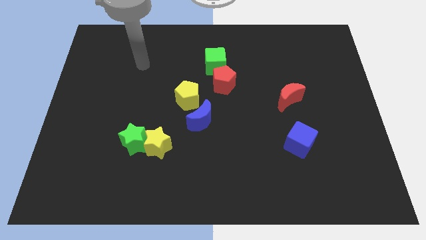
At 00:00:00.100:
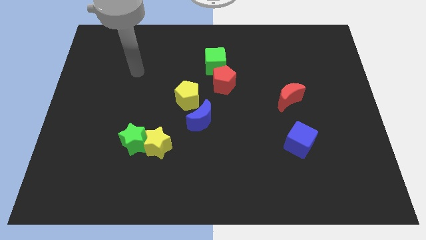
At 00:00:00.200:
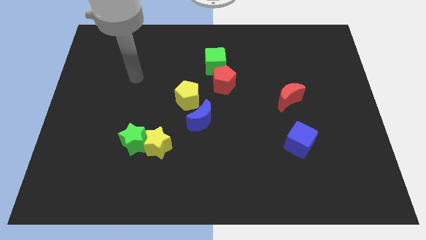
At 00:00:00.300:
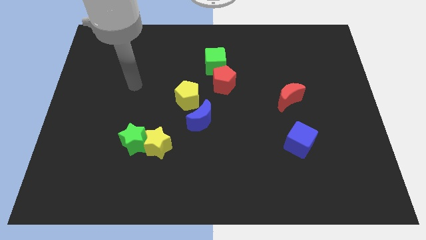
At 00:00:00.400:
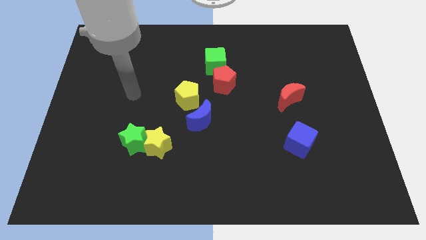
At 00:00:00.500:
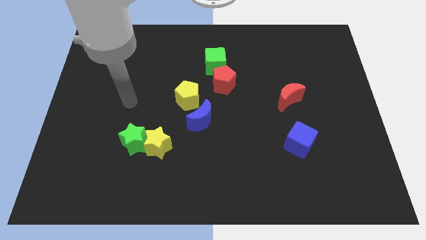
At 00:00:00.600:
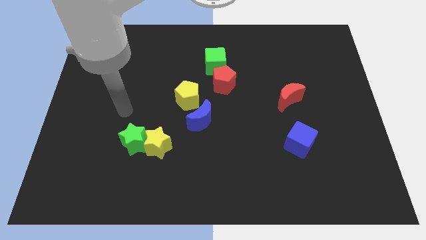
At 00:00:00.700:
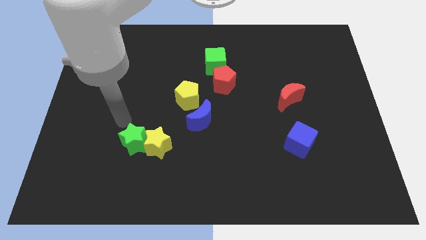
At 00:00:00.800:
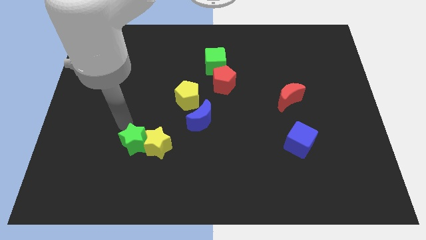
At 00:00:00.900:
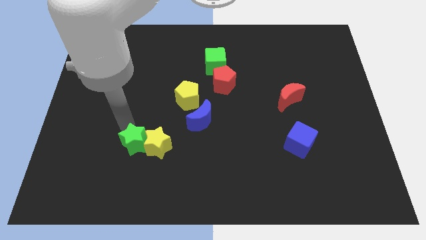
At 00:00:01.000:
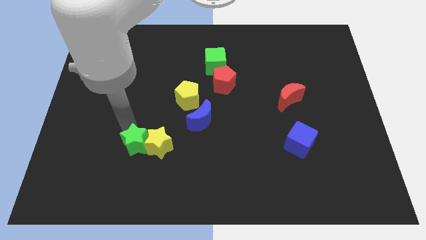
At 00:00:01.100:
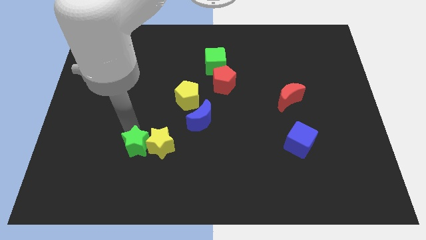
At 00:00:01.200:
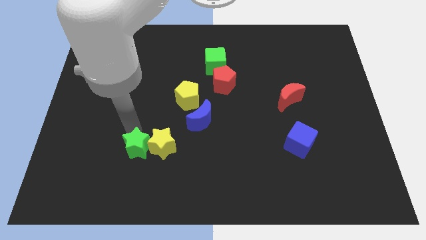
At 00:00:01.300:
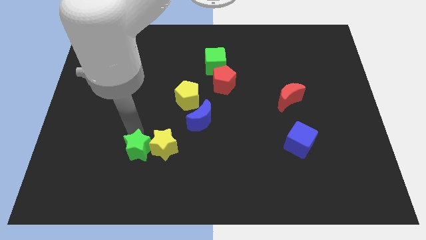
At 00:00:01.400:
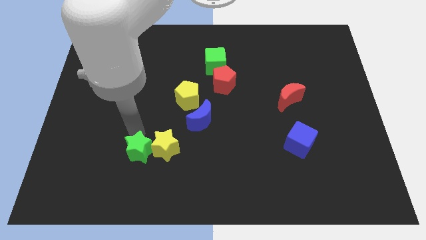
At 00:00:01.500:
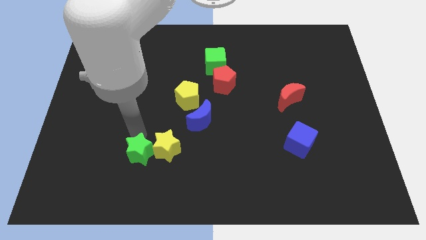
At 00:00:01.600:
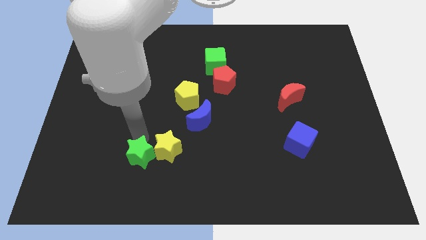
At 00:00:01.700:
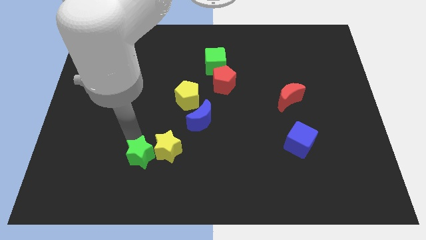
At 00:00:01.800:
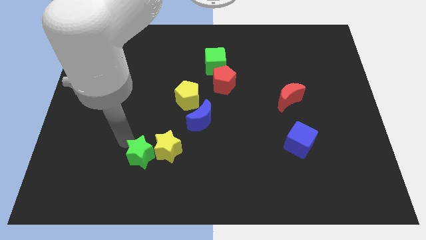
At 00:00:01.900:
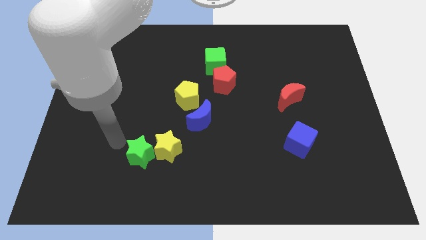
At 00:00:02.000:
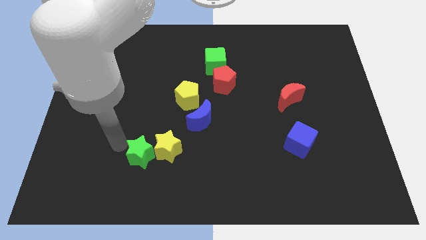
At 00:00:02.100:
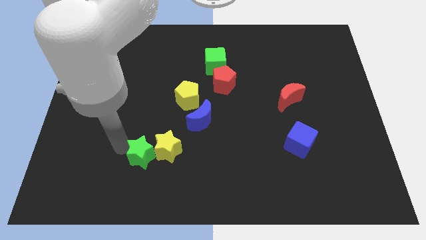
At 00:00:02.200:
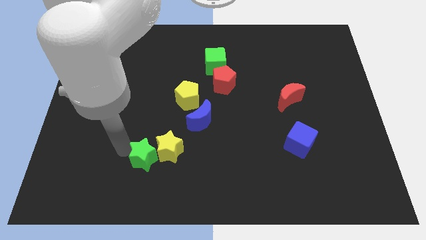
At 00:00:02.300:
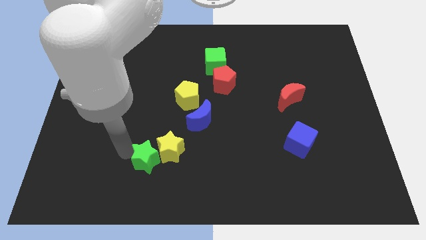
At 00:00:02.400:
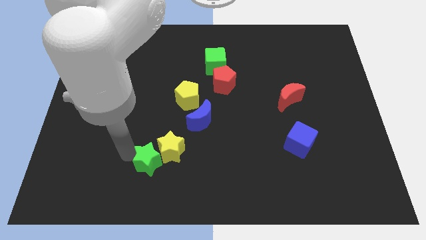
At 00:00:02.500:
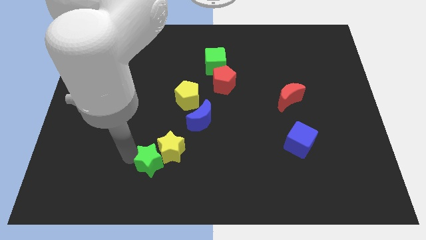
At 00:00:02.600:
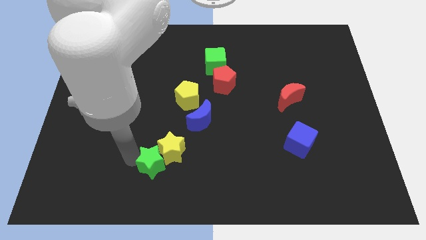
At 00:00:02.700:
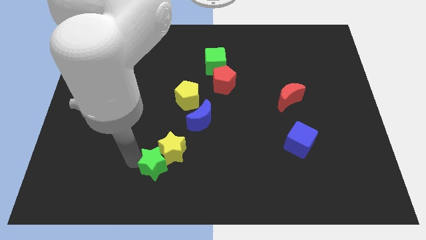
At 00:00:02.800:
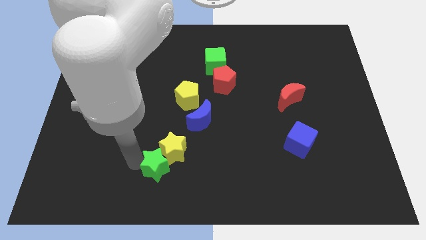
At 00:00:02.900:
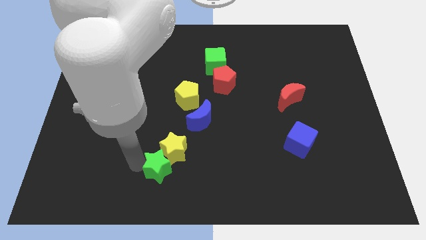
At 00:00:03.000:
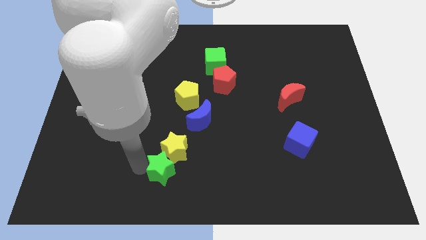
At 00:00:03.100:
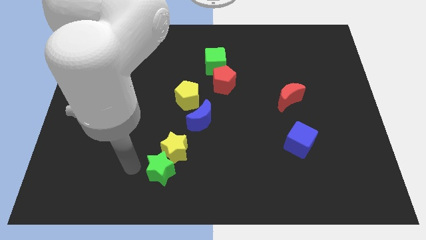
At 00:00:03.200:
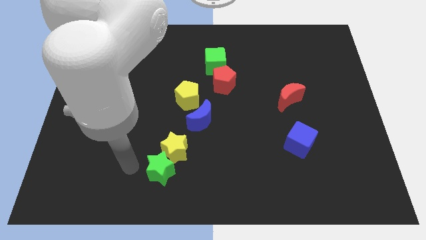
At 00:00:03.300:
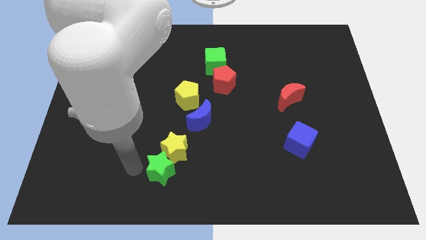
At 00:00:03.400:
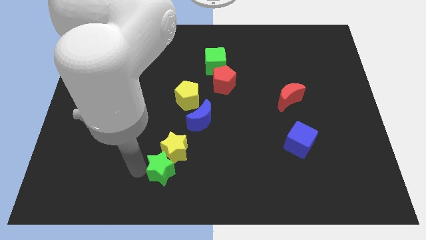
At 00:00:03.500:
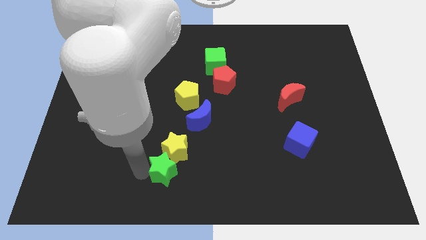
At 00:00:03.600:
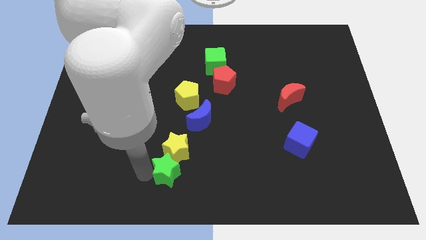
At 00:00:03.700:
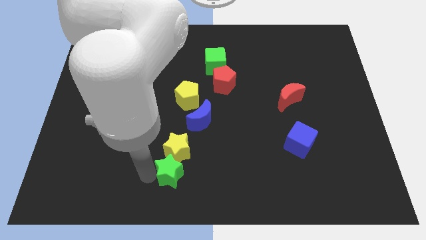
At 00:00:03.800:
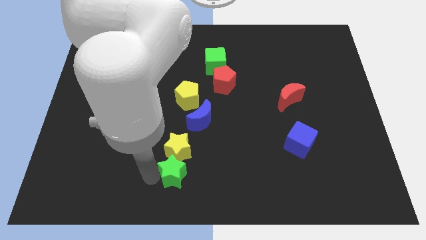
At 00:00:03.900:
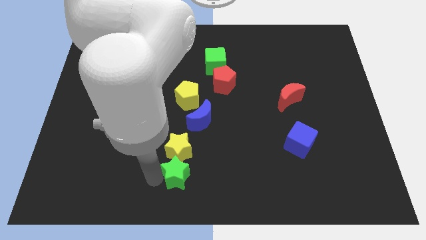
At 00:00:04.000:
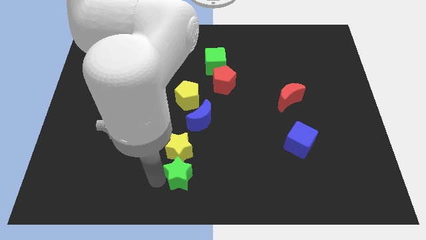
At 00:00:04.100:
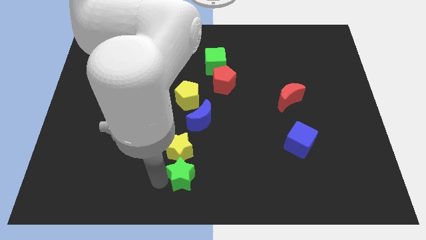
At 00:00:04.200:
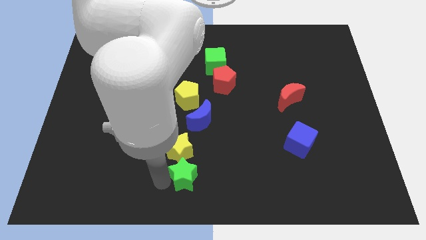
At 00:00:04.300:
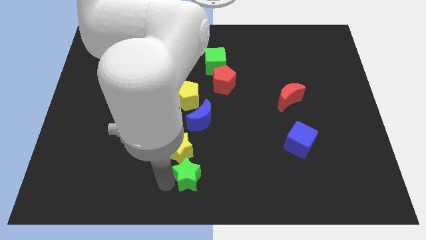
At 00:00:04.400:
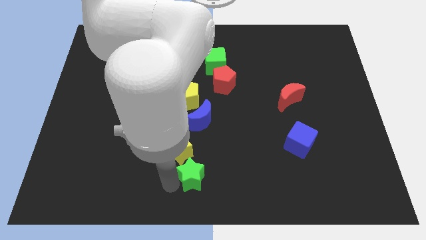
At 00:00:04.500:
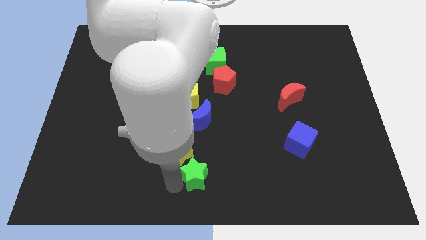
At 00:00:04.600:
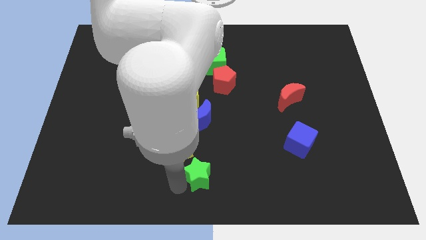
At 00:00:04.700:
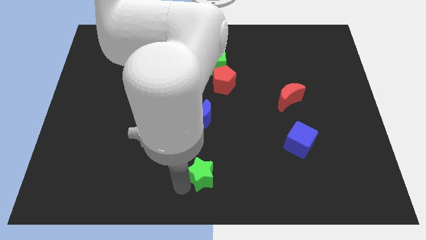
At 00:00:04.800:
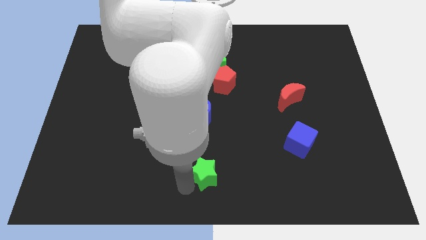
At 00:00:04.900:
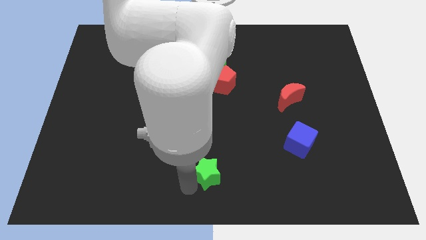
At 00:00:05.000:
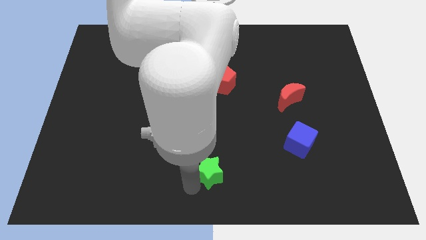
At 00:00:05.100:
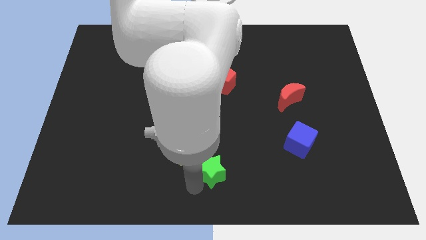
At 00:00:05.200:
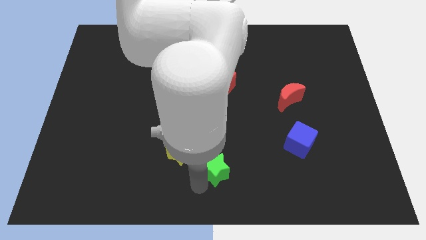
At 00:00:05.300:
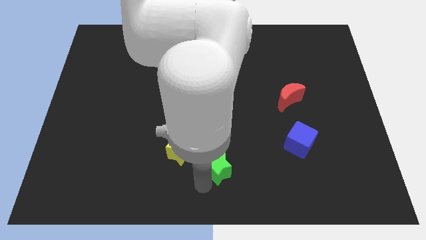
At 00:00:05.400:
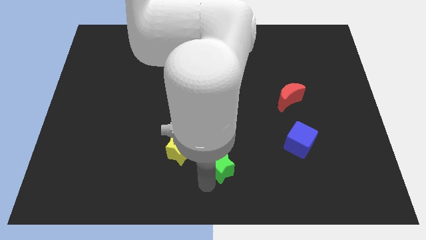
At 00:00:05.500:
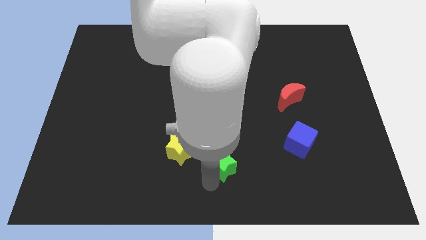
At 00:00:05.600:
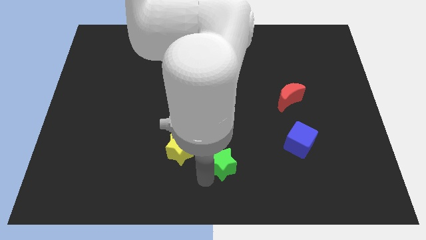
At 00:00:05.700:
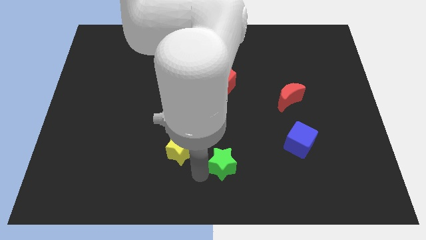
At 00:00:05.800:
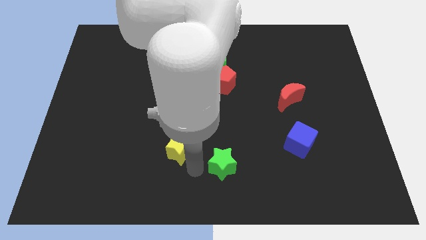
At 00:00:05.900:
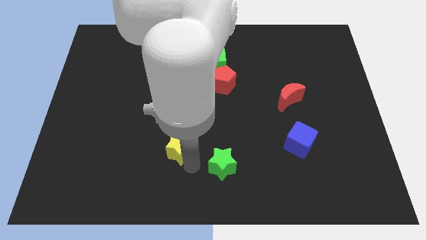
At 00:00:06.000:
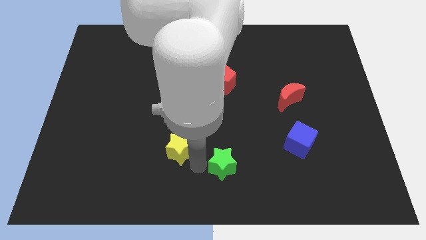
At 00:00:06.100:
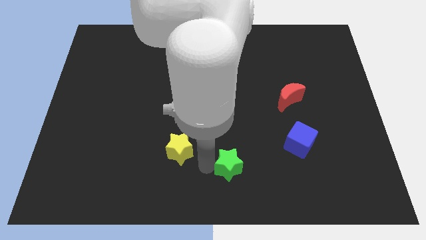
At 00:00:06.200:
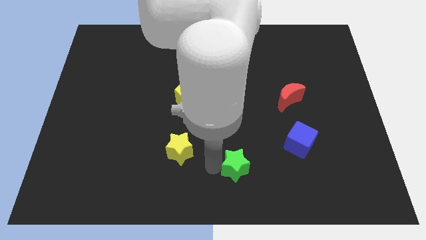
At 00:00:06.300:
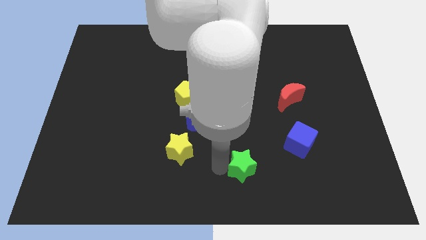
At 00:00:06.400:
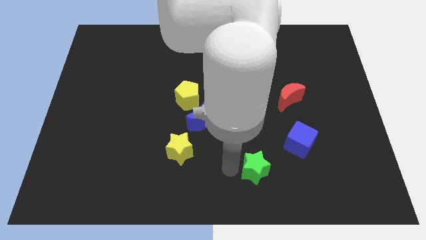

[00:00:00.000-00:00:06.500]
push the green star to the bottom left side of the blue cube
